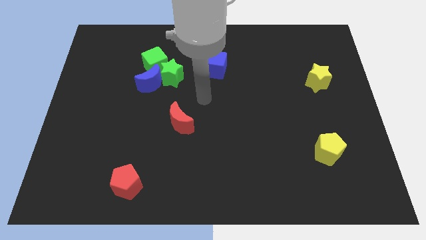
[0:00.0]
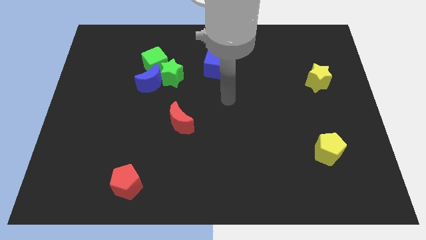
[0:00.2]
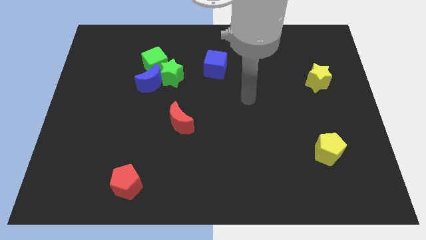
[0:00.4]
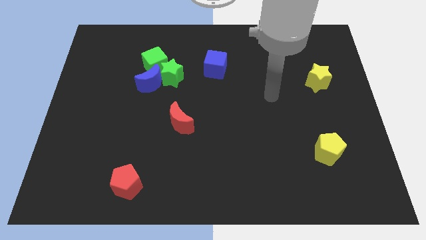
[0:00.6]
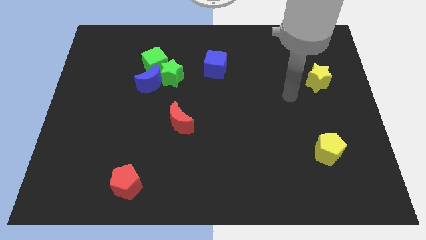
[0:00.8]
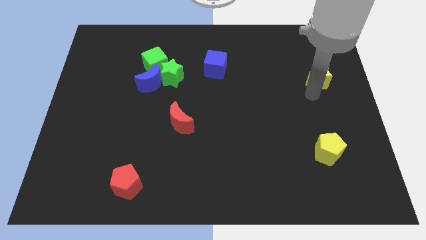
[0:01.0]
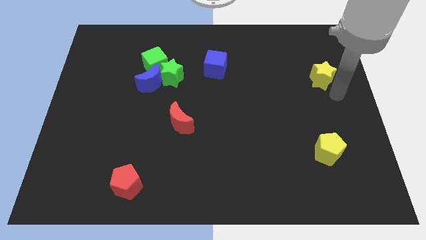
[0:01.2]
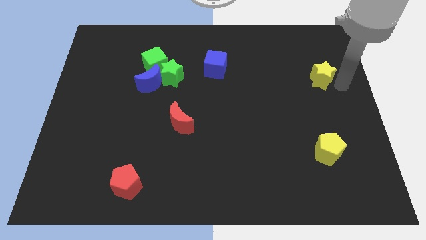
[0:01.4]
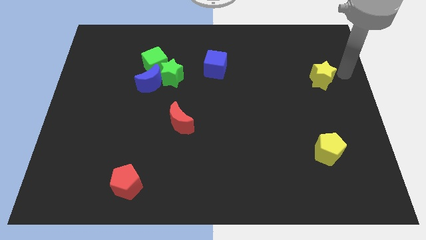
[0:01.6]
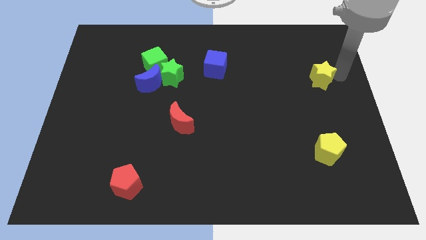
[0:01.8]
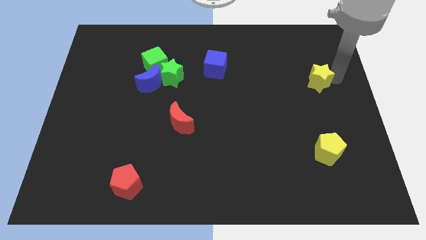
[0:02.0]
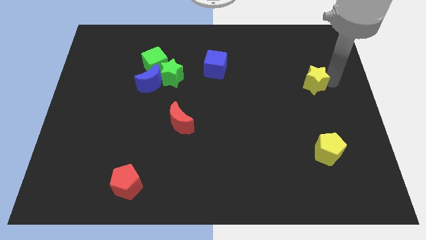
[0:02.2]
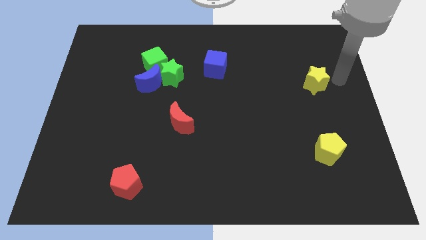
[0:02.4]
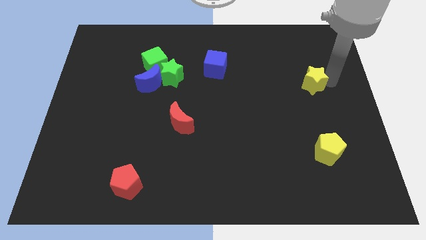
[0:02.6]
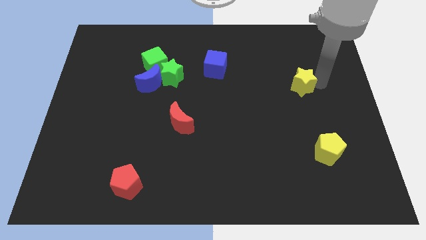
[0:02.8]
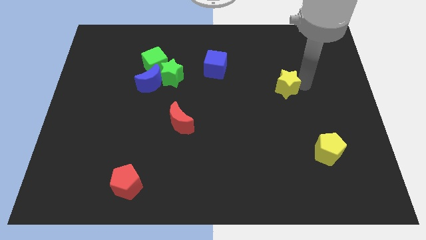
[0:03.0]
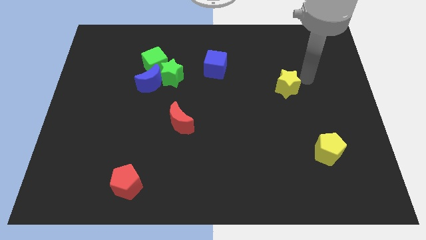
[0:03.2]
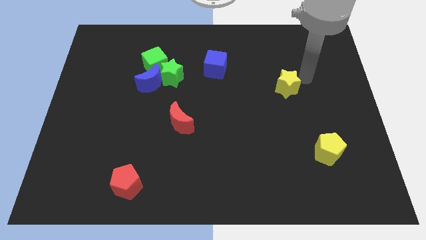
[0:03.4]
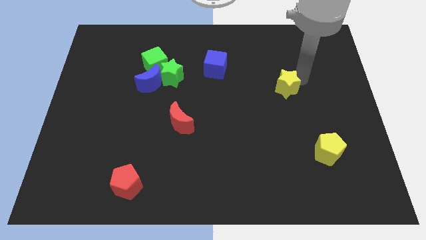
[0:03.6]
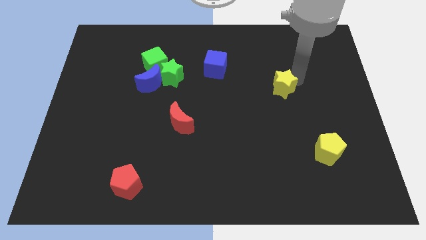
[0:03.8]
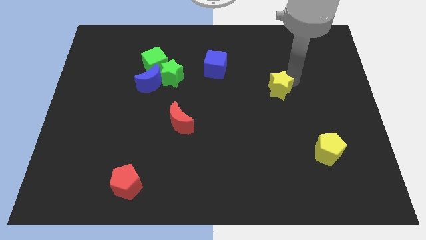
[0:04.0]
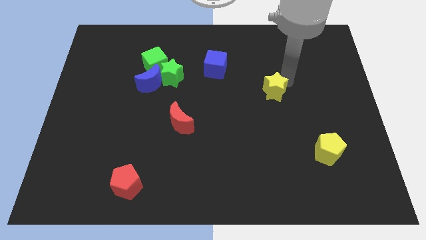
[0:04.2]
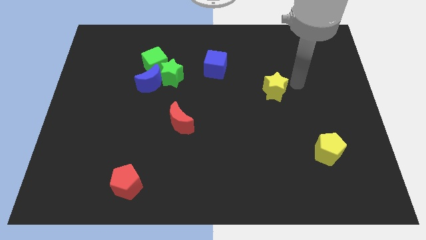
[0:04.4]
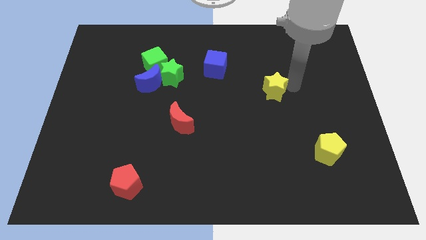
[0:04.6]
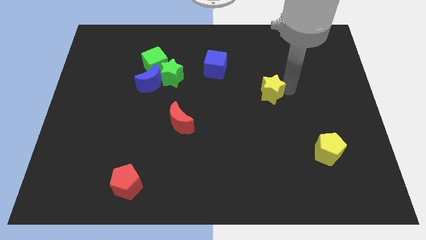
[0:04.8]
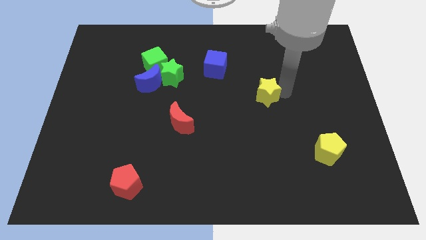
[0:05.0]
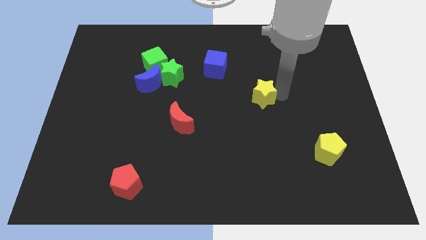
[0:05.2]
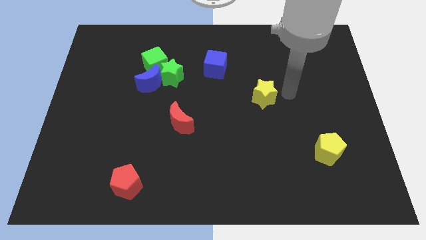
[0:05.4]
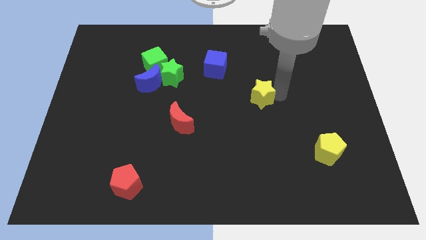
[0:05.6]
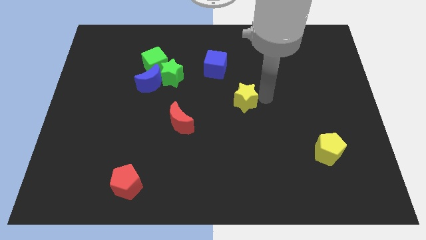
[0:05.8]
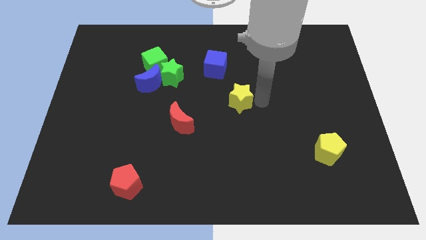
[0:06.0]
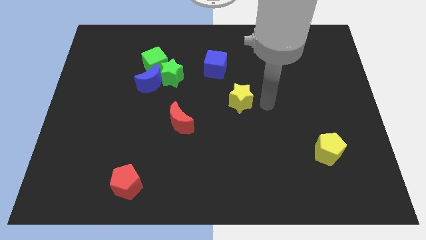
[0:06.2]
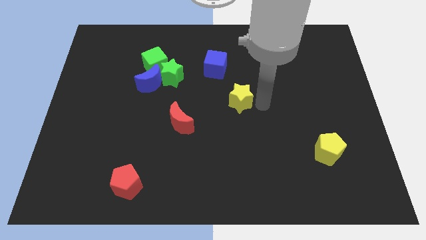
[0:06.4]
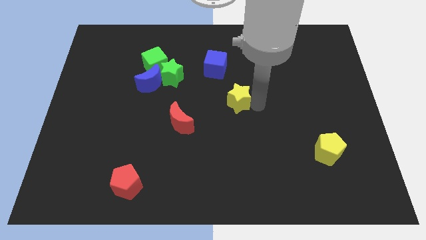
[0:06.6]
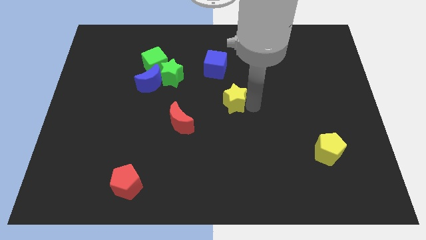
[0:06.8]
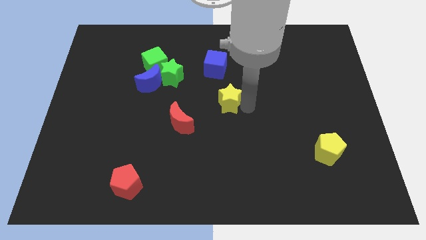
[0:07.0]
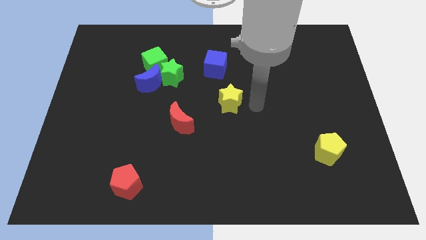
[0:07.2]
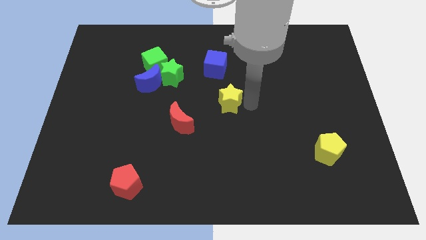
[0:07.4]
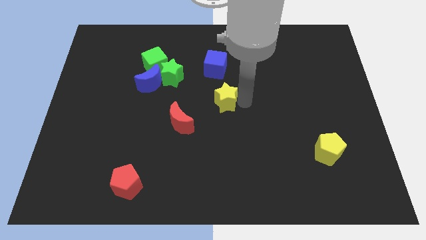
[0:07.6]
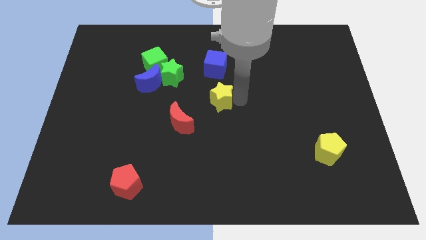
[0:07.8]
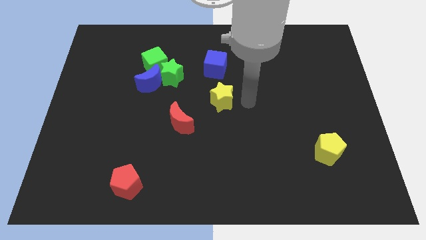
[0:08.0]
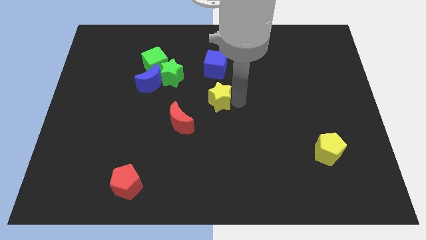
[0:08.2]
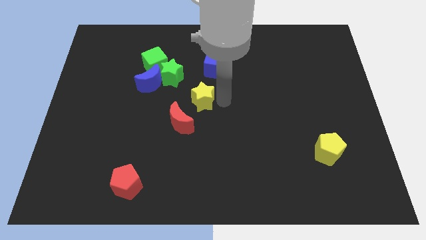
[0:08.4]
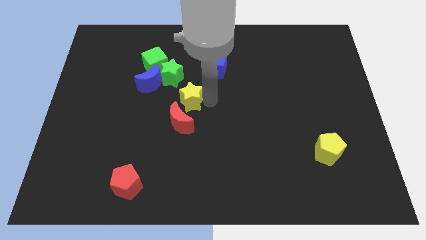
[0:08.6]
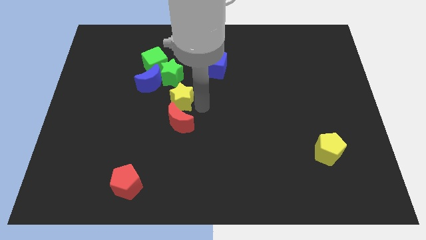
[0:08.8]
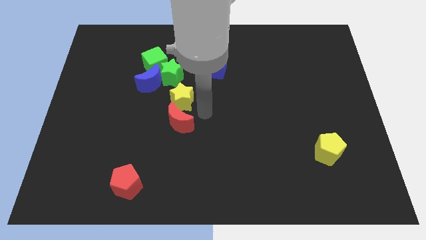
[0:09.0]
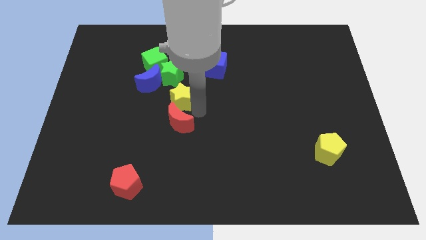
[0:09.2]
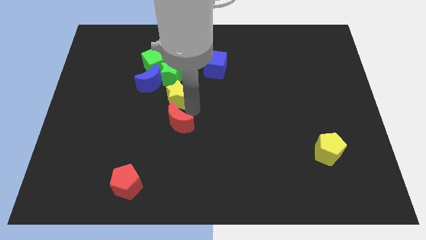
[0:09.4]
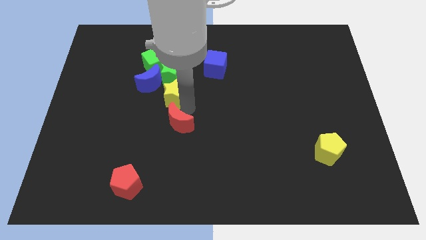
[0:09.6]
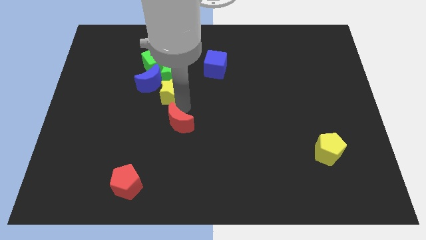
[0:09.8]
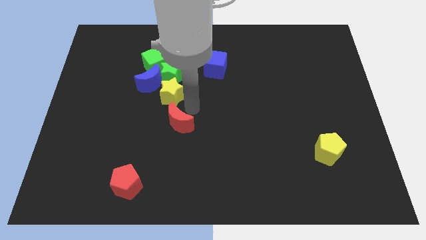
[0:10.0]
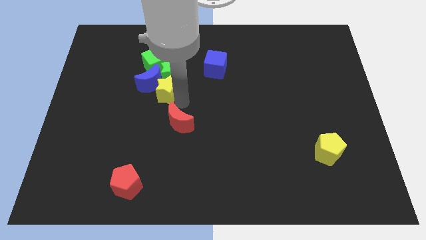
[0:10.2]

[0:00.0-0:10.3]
move the yellow star close to the blue moon

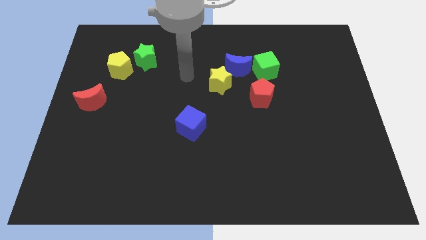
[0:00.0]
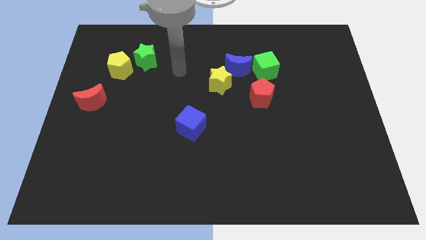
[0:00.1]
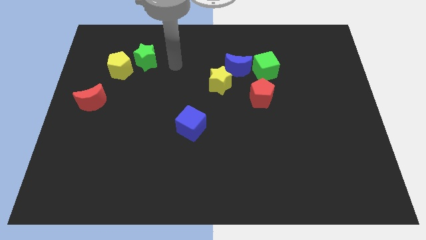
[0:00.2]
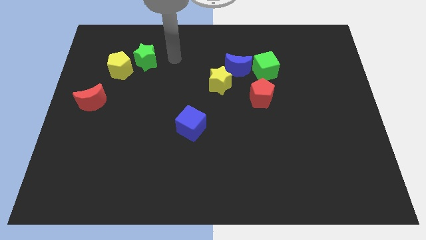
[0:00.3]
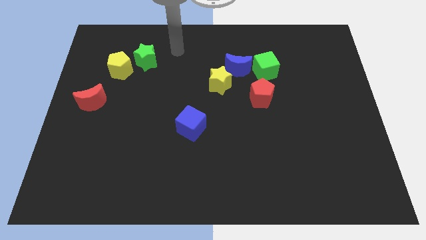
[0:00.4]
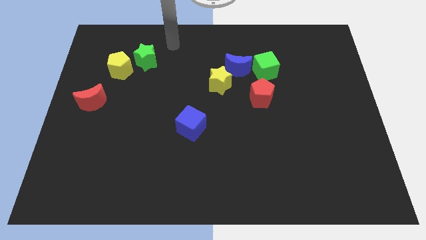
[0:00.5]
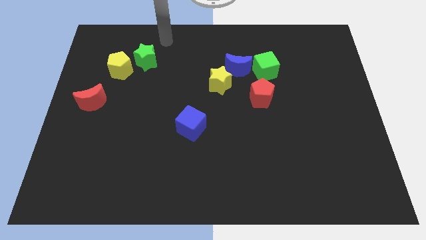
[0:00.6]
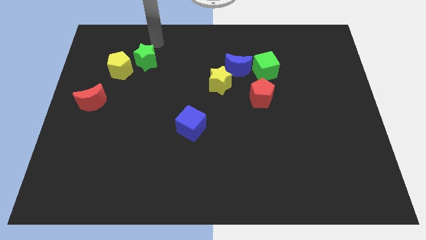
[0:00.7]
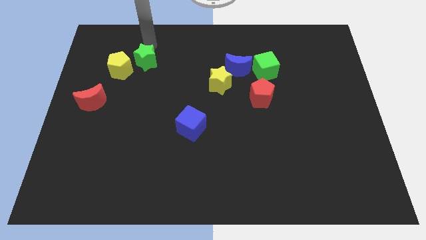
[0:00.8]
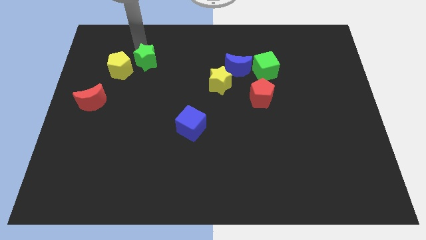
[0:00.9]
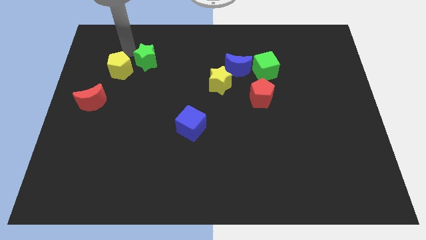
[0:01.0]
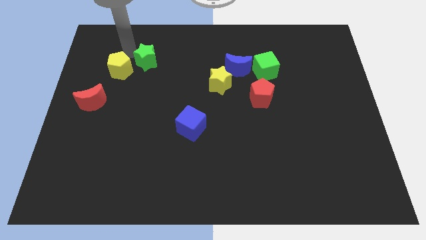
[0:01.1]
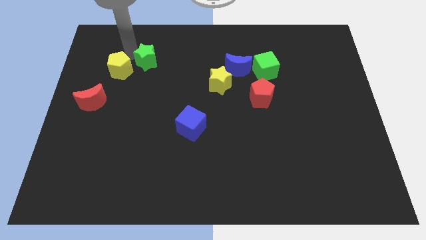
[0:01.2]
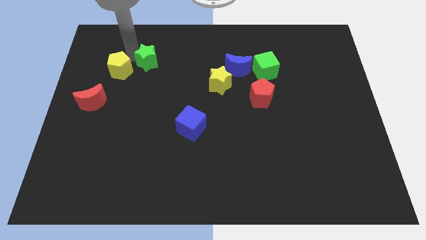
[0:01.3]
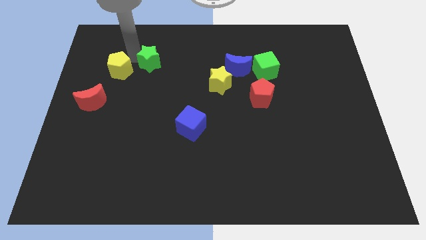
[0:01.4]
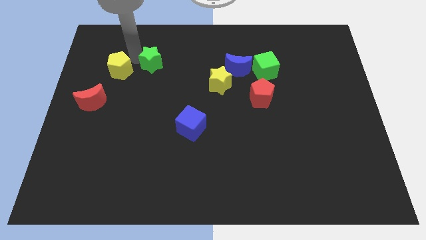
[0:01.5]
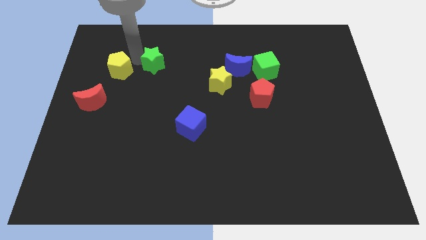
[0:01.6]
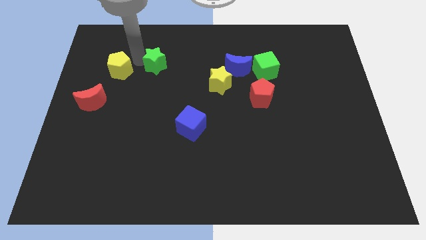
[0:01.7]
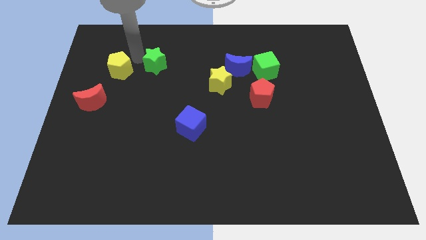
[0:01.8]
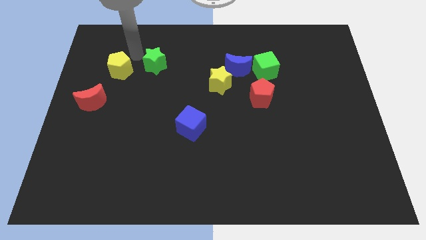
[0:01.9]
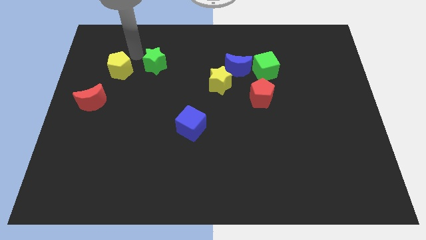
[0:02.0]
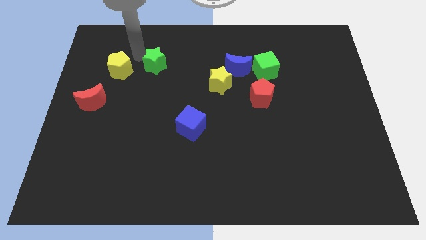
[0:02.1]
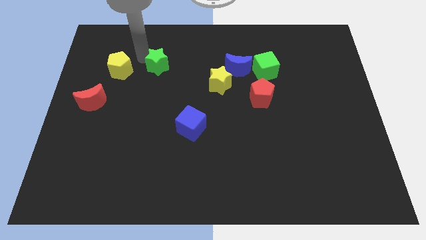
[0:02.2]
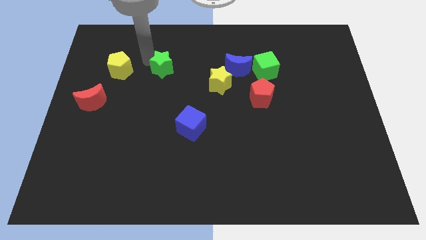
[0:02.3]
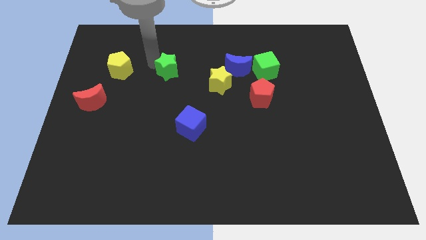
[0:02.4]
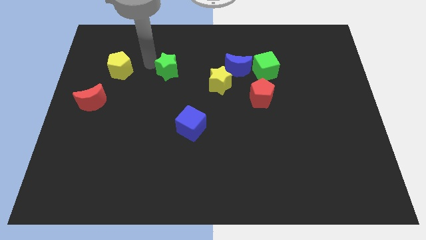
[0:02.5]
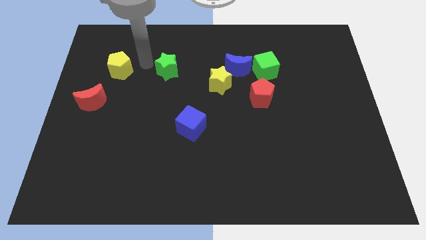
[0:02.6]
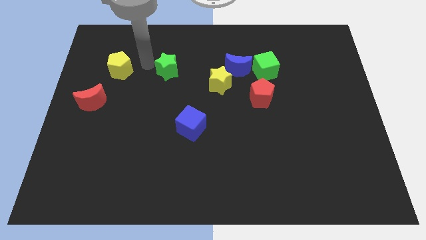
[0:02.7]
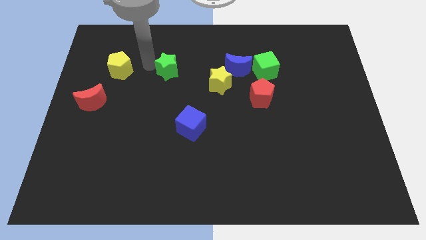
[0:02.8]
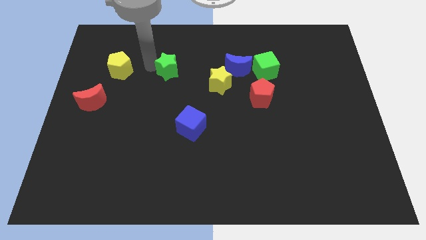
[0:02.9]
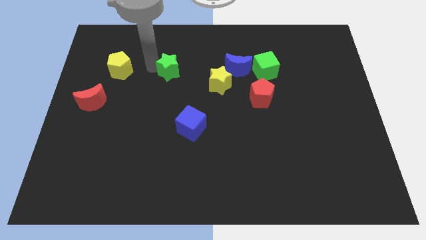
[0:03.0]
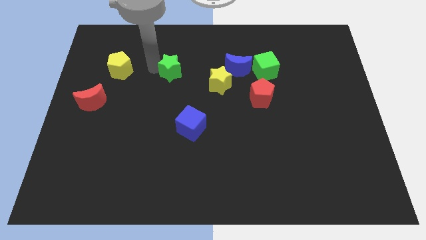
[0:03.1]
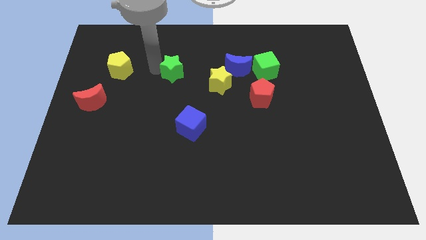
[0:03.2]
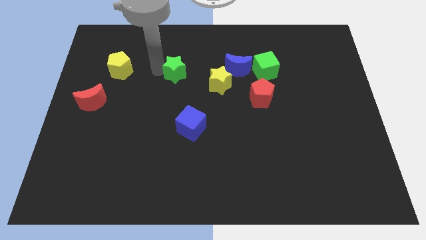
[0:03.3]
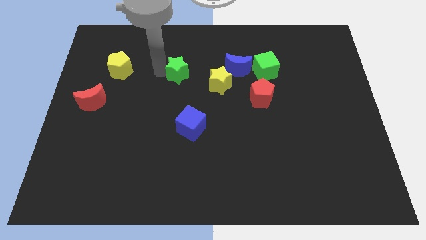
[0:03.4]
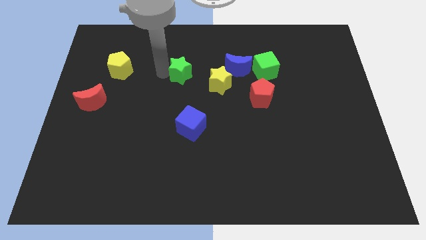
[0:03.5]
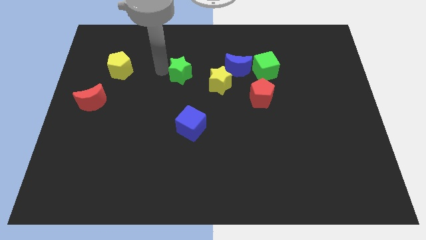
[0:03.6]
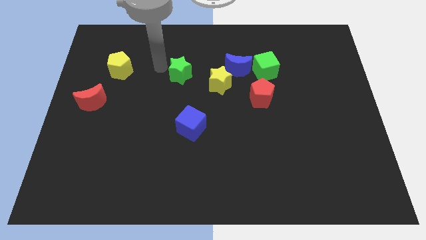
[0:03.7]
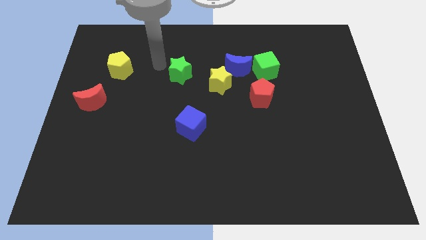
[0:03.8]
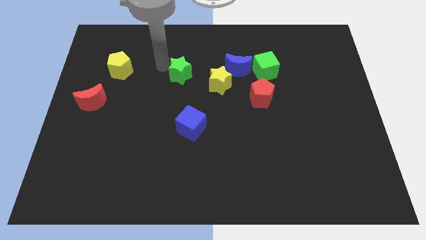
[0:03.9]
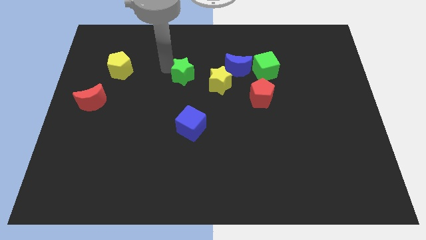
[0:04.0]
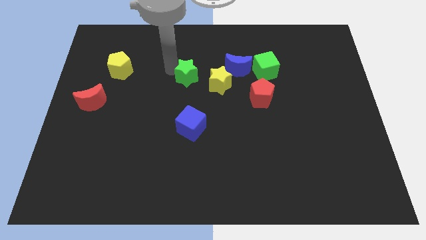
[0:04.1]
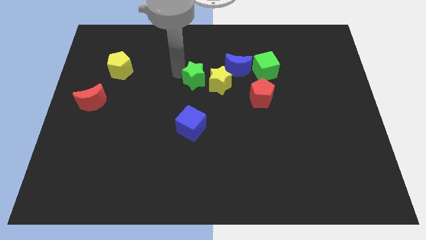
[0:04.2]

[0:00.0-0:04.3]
push the green star next to the yellow star
